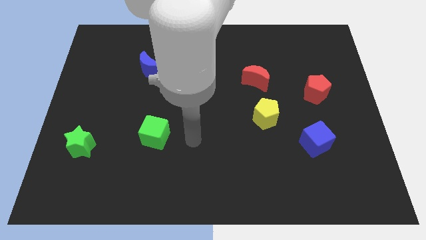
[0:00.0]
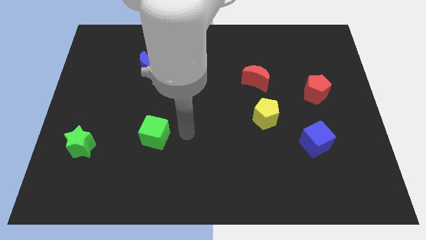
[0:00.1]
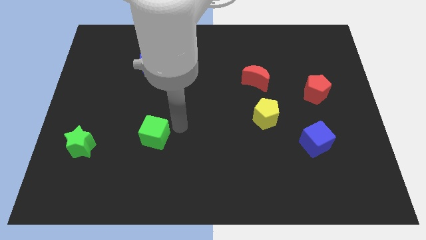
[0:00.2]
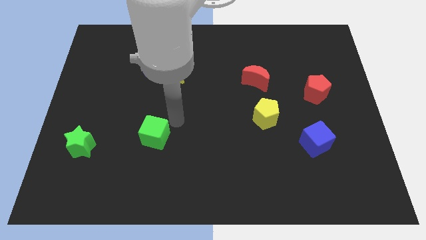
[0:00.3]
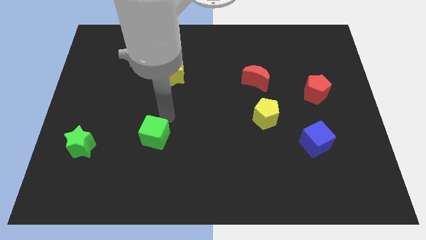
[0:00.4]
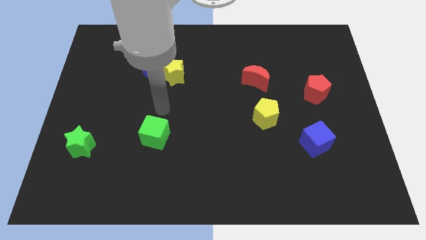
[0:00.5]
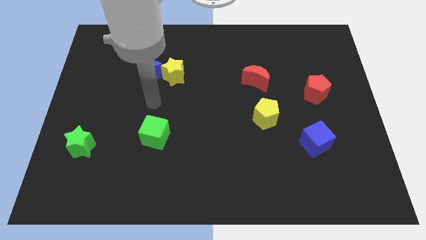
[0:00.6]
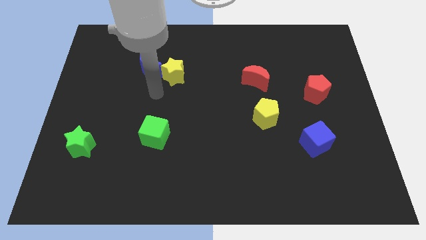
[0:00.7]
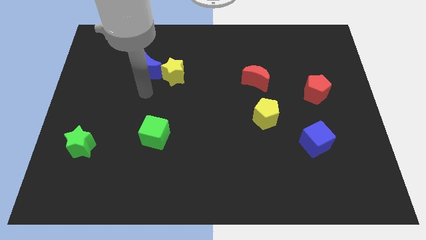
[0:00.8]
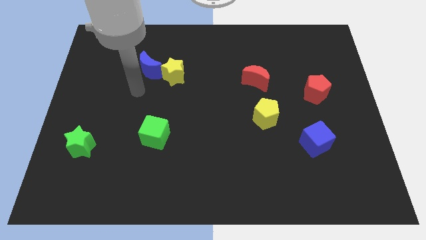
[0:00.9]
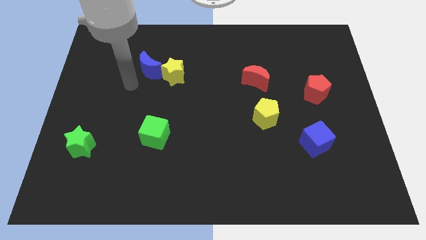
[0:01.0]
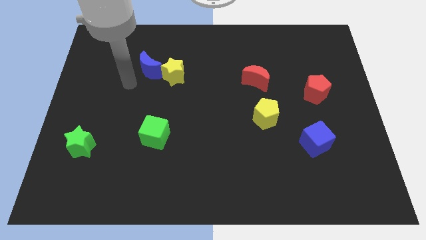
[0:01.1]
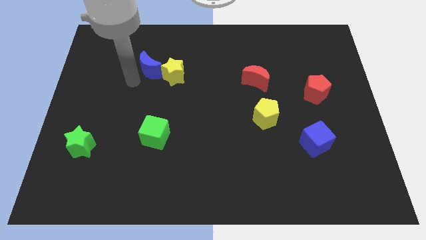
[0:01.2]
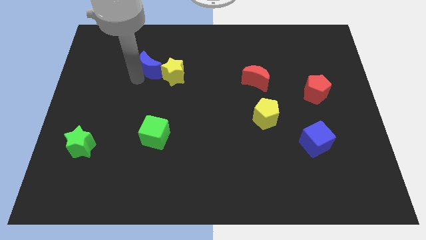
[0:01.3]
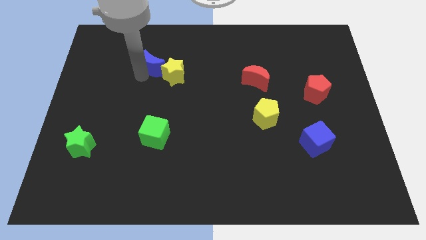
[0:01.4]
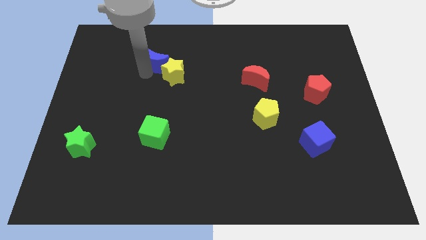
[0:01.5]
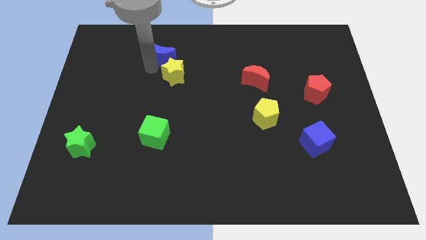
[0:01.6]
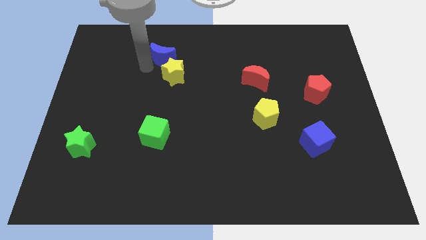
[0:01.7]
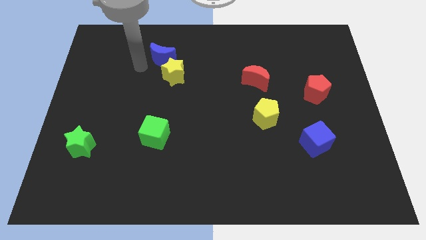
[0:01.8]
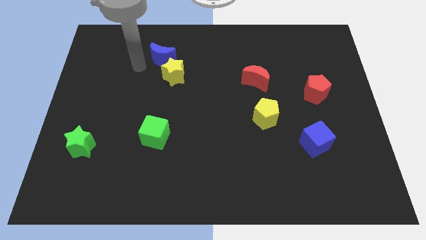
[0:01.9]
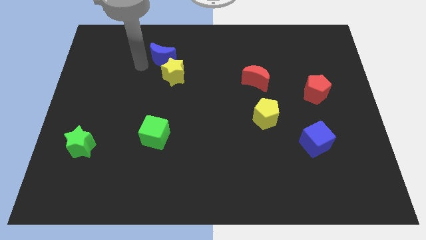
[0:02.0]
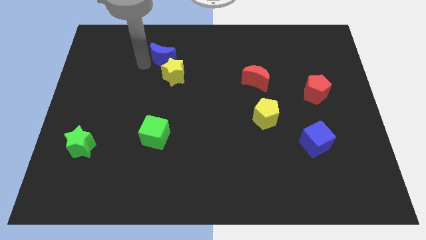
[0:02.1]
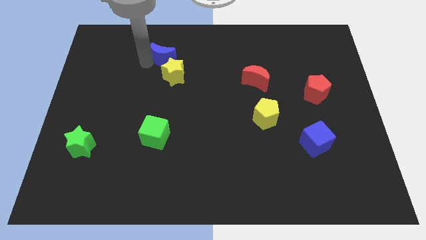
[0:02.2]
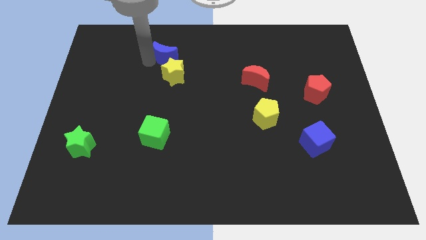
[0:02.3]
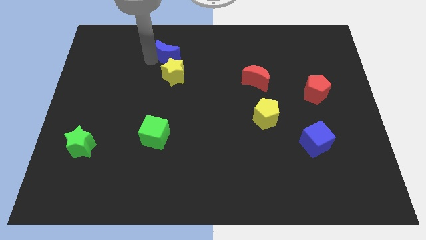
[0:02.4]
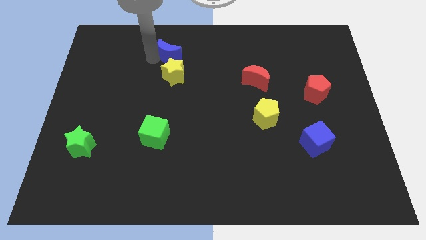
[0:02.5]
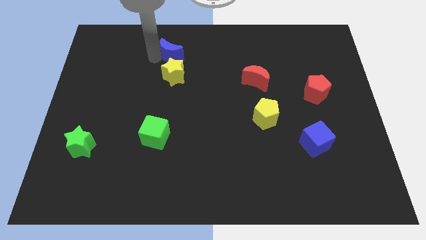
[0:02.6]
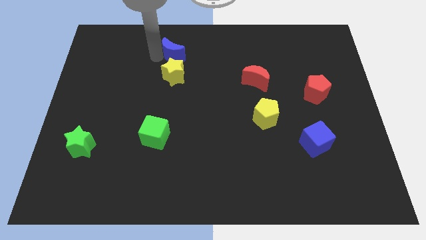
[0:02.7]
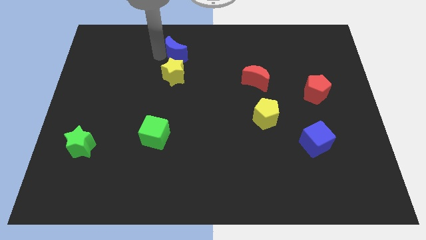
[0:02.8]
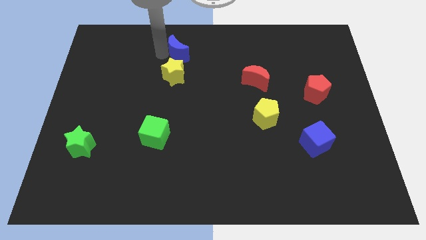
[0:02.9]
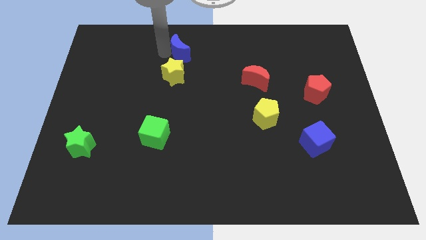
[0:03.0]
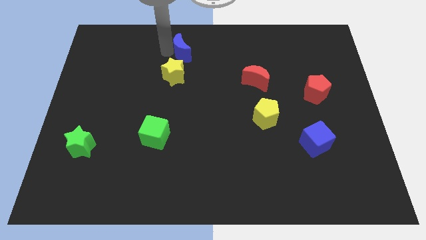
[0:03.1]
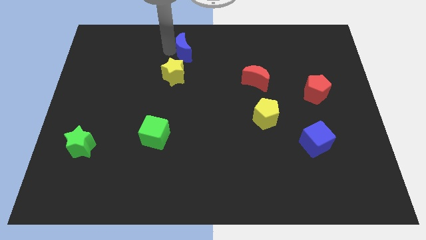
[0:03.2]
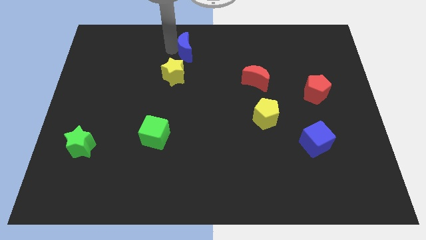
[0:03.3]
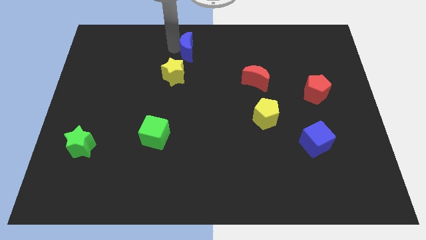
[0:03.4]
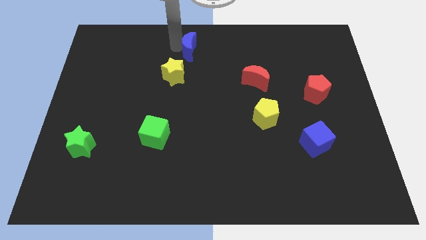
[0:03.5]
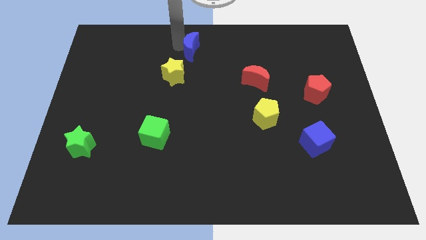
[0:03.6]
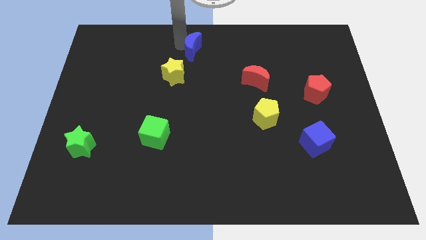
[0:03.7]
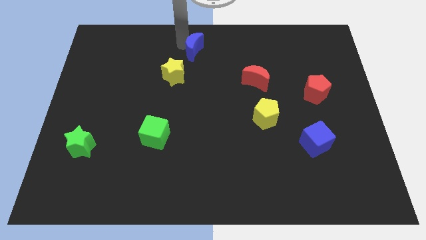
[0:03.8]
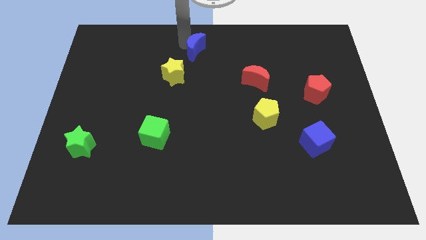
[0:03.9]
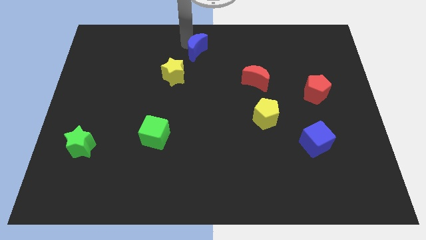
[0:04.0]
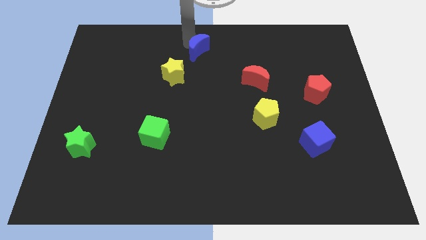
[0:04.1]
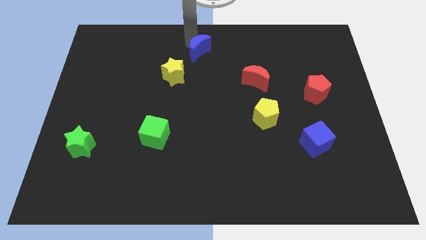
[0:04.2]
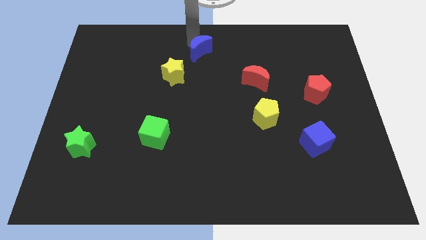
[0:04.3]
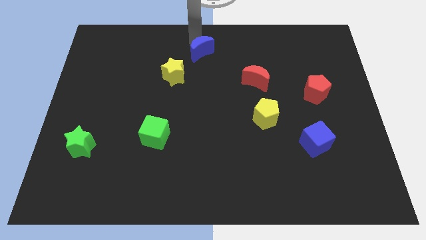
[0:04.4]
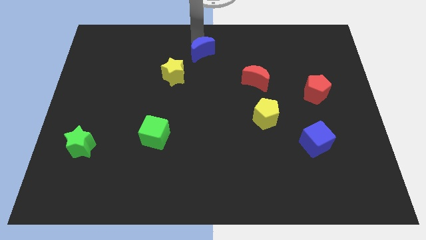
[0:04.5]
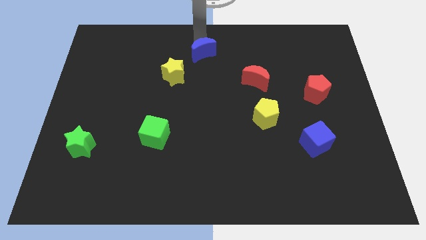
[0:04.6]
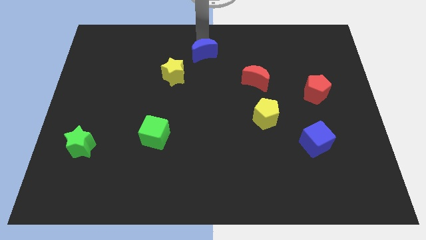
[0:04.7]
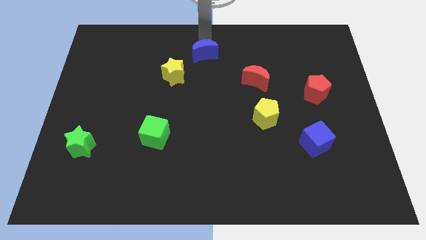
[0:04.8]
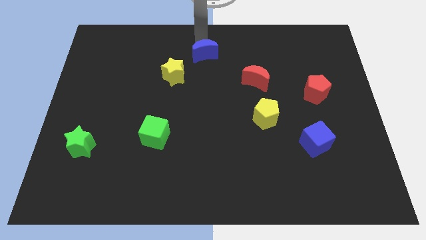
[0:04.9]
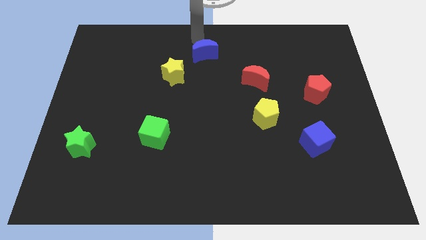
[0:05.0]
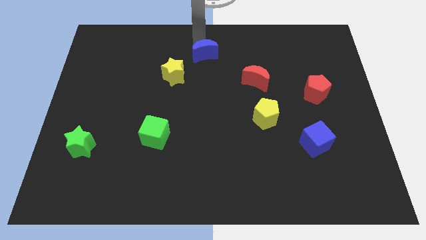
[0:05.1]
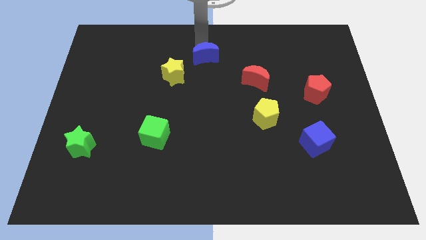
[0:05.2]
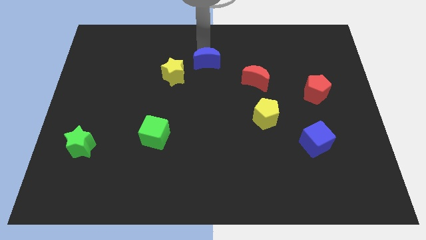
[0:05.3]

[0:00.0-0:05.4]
put the blue moon to the right of the yellow star

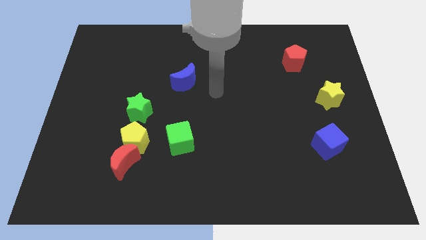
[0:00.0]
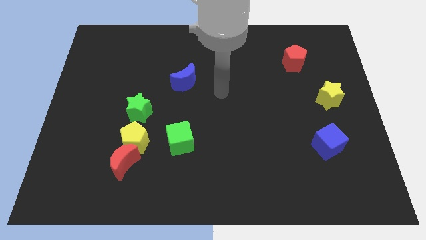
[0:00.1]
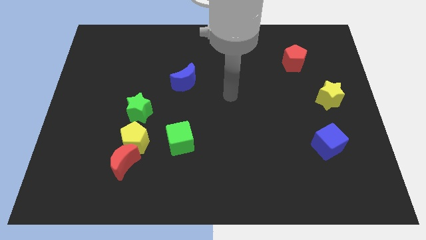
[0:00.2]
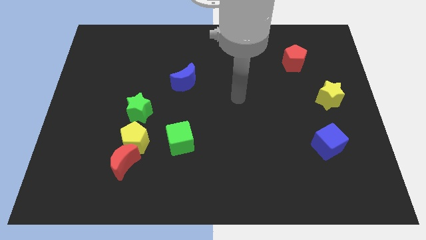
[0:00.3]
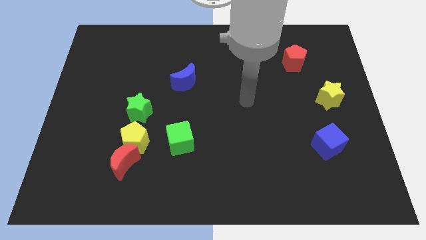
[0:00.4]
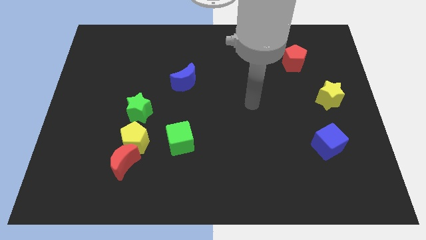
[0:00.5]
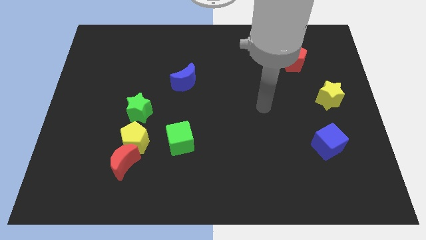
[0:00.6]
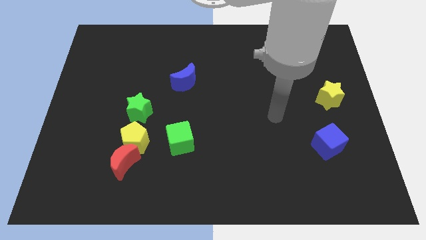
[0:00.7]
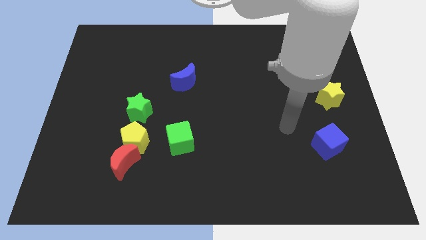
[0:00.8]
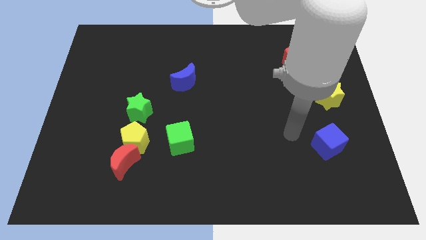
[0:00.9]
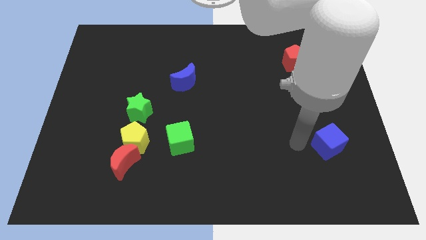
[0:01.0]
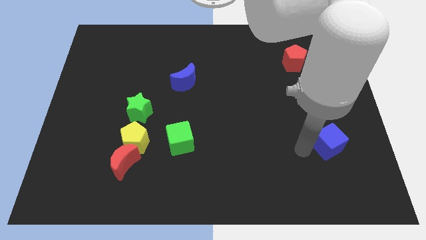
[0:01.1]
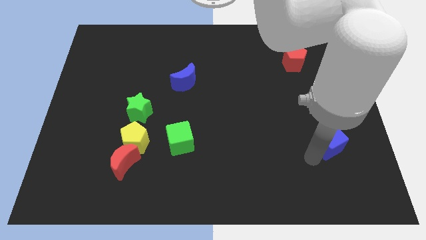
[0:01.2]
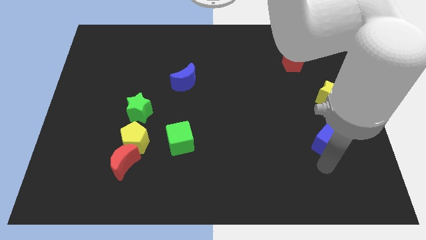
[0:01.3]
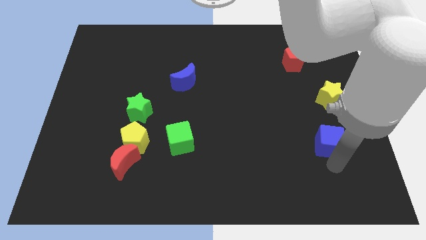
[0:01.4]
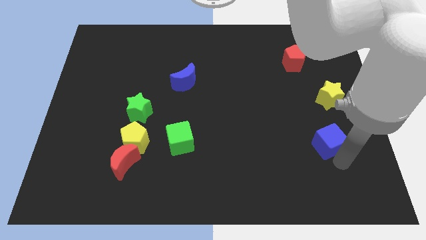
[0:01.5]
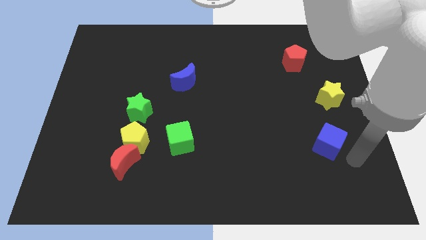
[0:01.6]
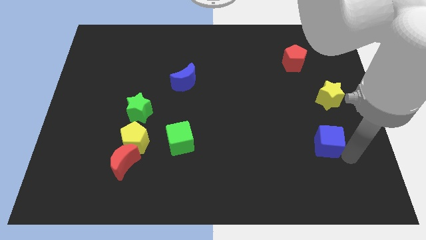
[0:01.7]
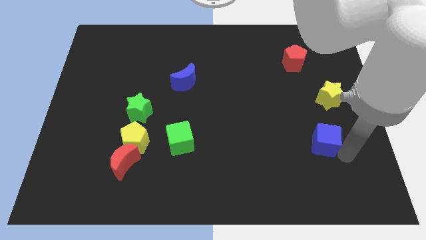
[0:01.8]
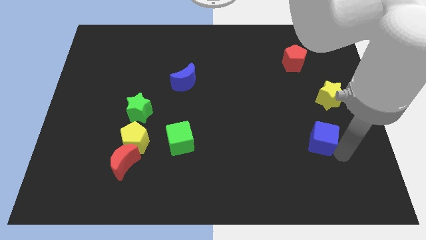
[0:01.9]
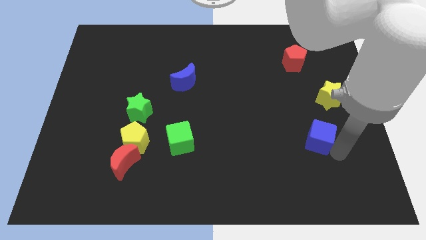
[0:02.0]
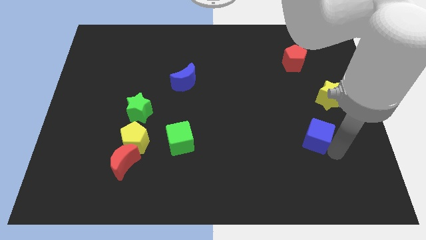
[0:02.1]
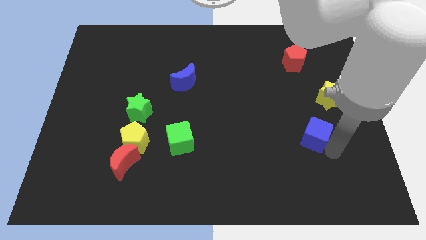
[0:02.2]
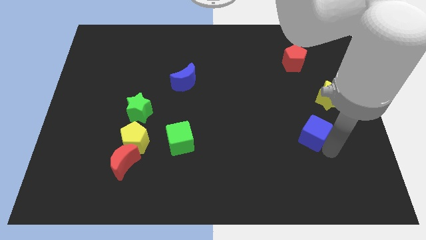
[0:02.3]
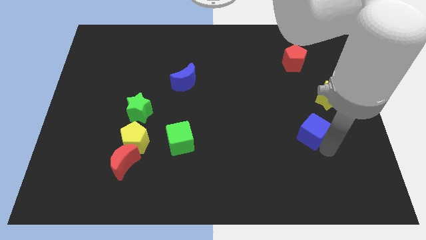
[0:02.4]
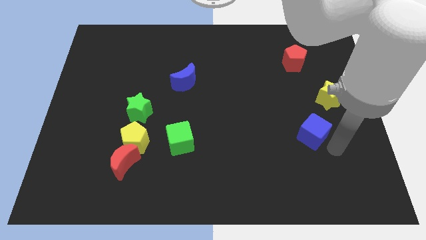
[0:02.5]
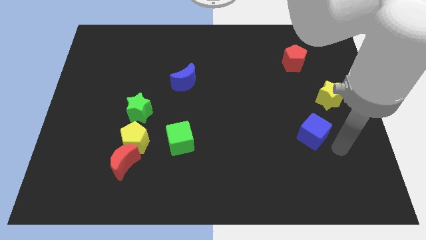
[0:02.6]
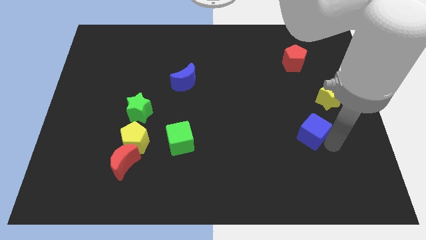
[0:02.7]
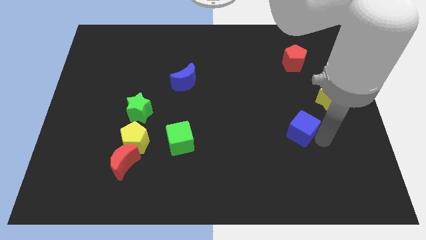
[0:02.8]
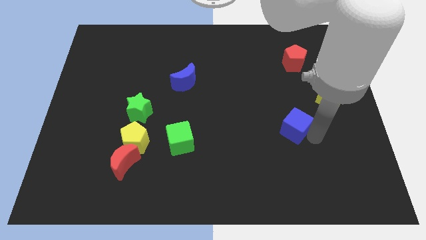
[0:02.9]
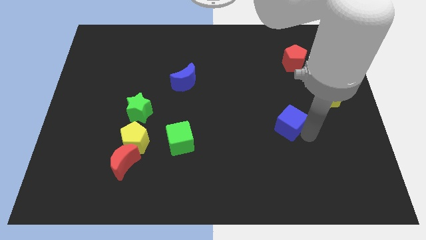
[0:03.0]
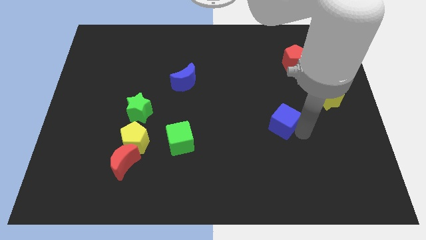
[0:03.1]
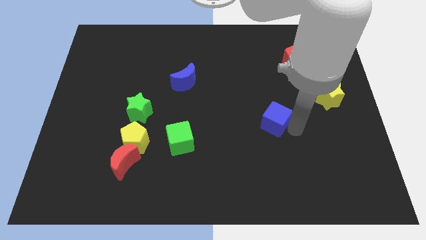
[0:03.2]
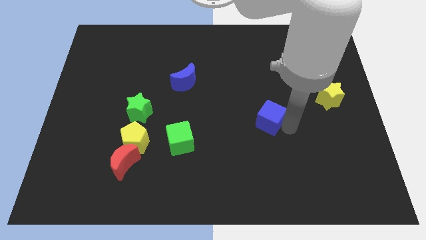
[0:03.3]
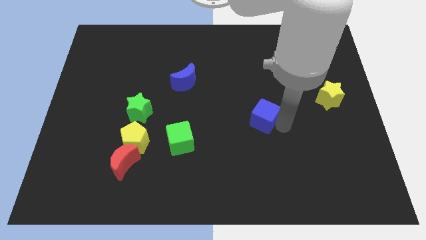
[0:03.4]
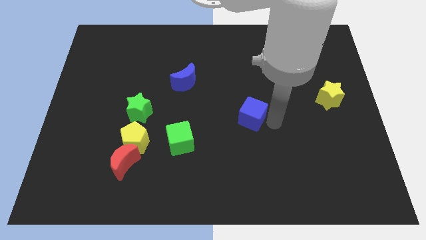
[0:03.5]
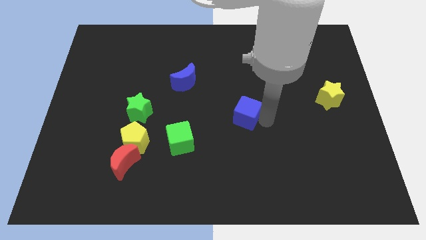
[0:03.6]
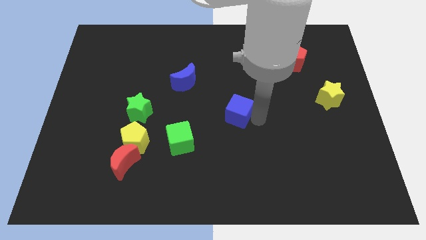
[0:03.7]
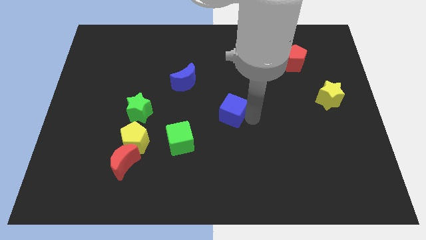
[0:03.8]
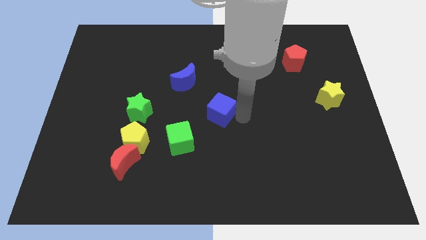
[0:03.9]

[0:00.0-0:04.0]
slide the blue cube to the bottom right of the blue moon
